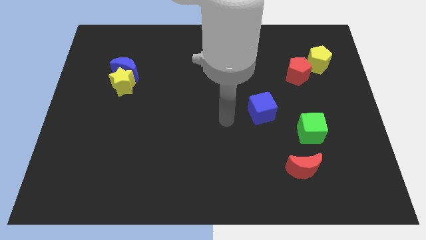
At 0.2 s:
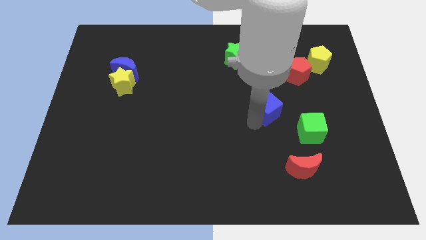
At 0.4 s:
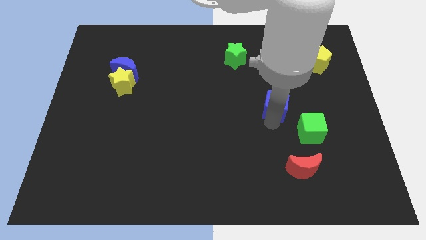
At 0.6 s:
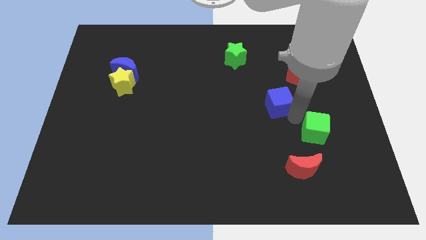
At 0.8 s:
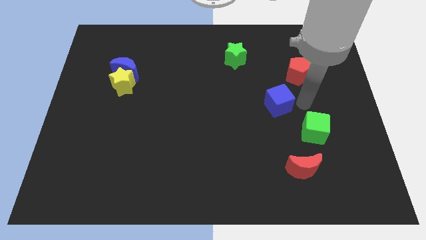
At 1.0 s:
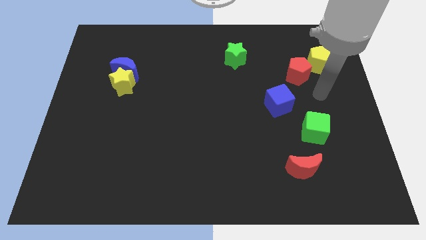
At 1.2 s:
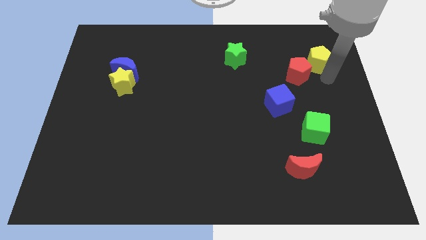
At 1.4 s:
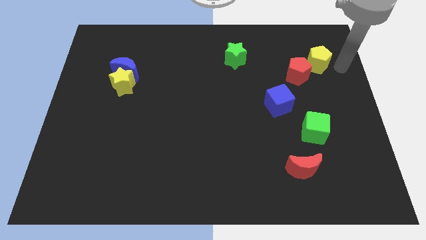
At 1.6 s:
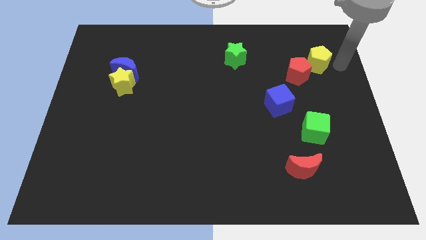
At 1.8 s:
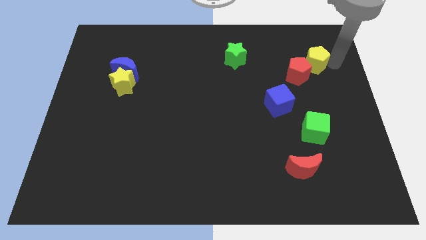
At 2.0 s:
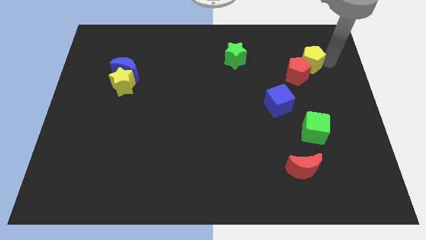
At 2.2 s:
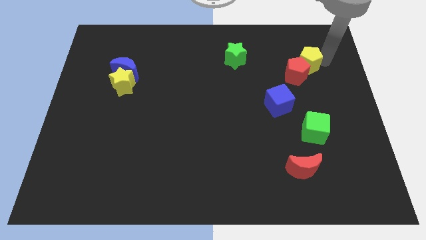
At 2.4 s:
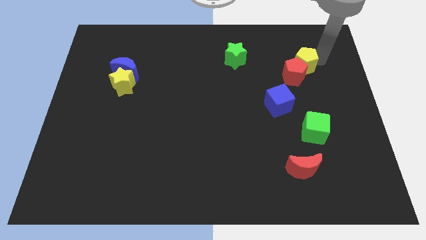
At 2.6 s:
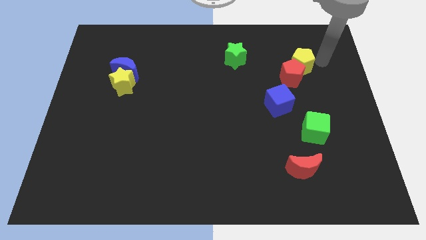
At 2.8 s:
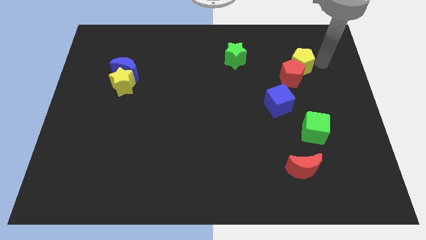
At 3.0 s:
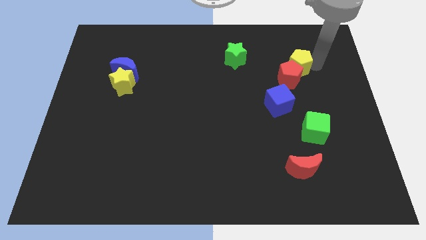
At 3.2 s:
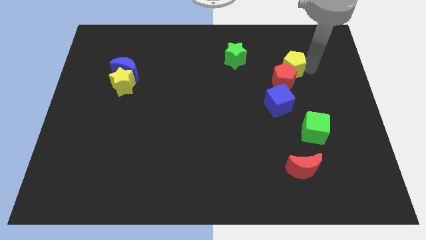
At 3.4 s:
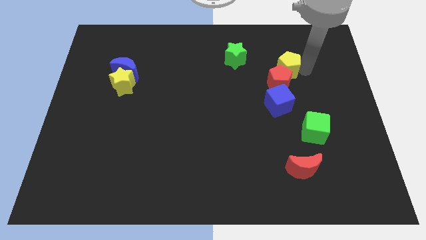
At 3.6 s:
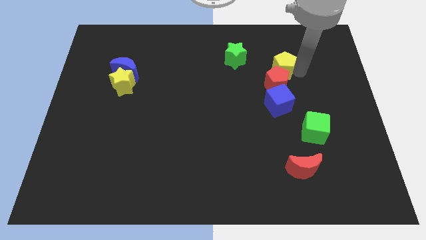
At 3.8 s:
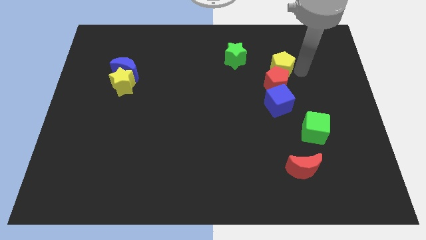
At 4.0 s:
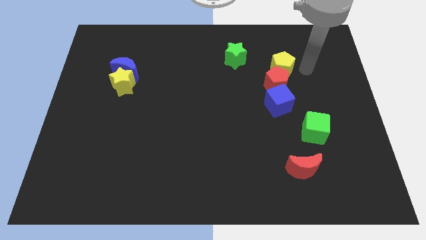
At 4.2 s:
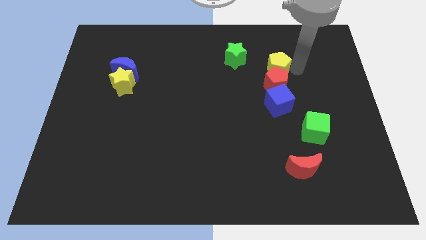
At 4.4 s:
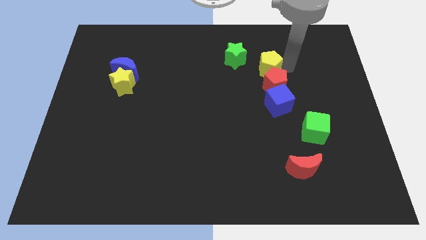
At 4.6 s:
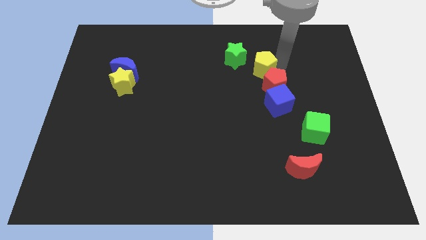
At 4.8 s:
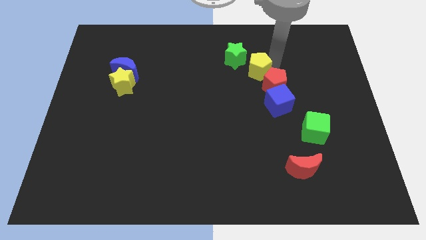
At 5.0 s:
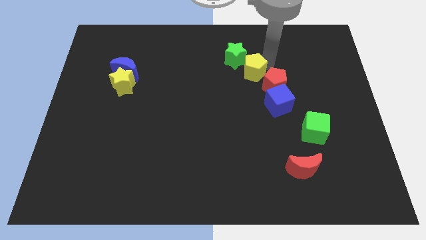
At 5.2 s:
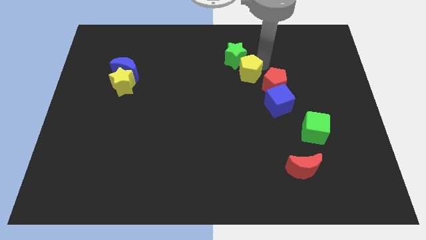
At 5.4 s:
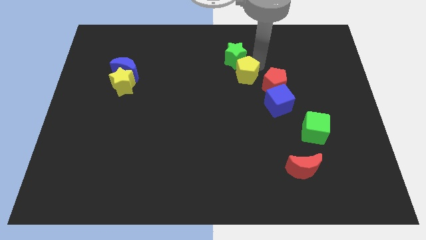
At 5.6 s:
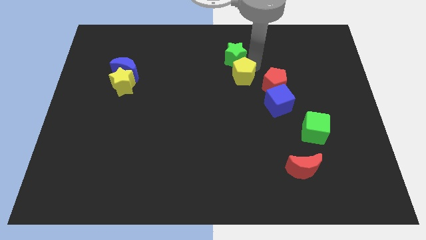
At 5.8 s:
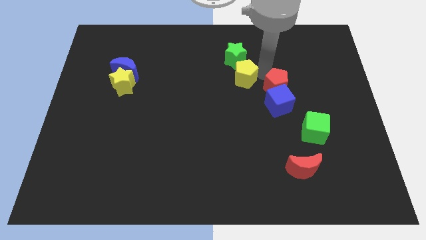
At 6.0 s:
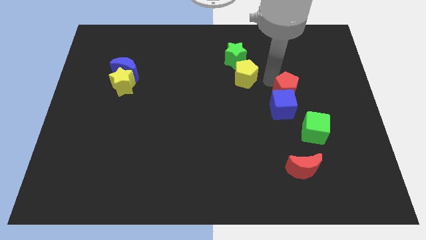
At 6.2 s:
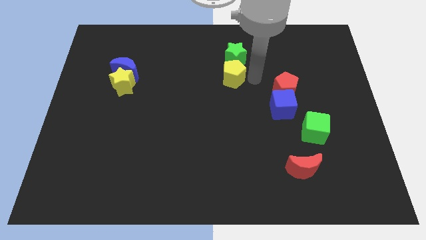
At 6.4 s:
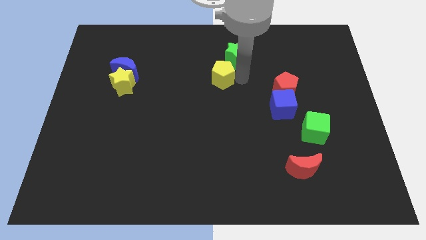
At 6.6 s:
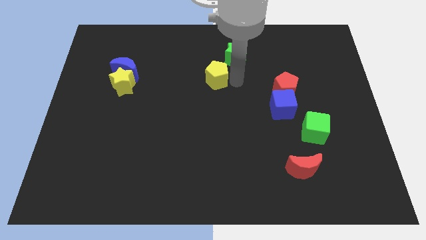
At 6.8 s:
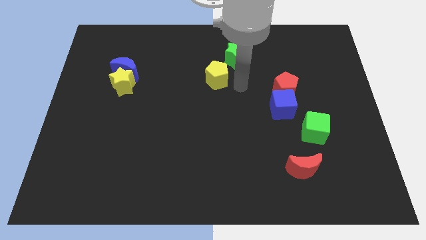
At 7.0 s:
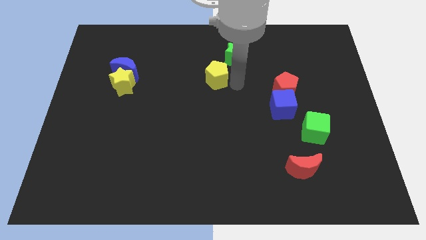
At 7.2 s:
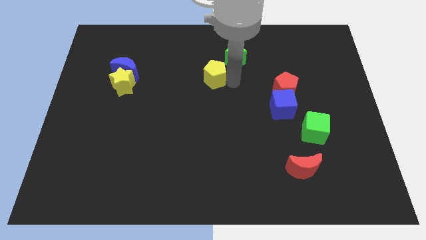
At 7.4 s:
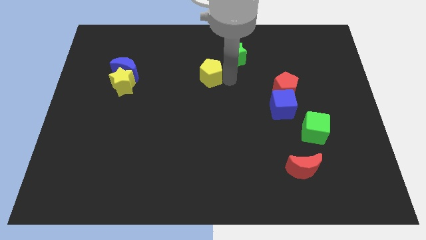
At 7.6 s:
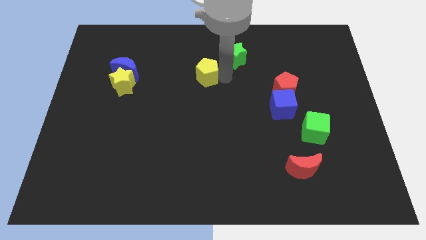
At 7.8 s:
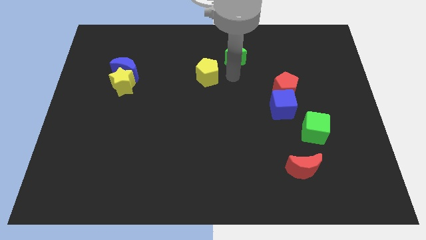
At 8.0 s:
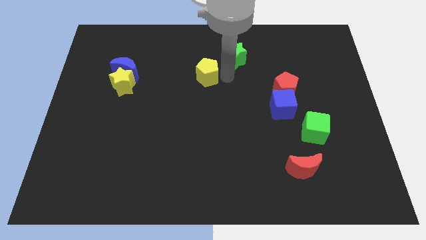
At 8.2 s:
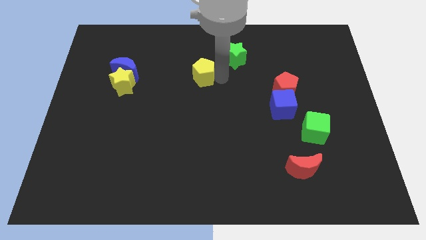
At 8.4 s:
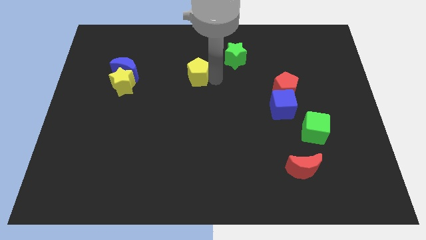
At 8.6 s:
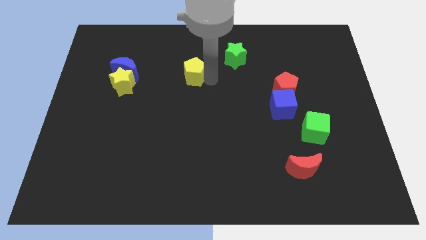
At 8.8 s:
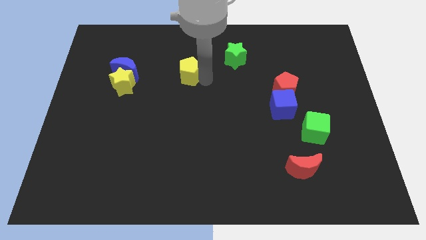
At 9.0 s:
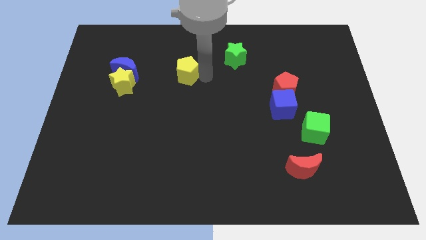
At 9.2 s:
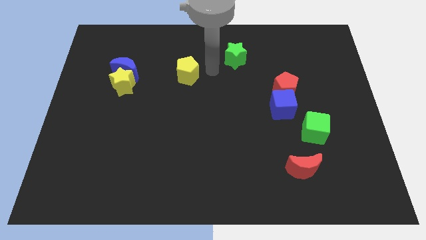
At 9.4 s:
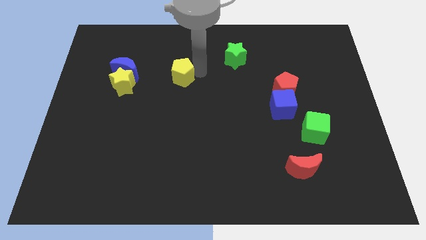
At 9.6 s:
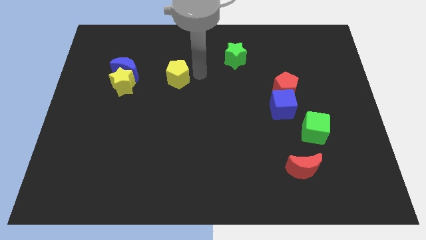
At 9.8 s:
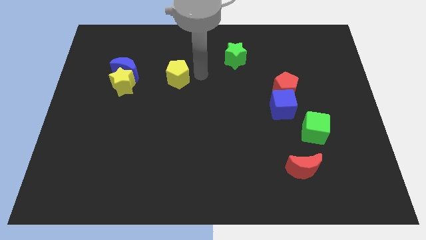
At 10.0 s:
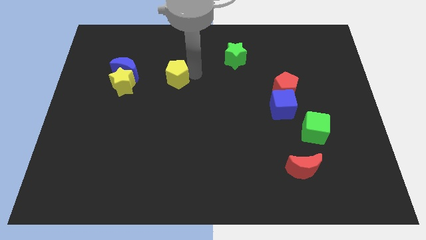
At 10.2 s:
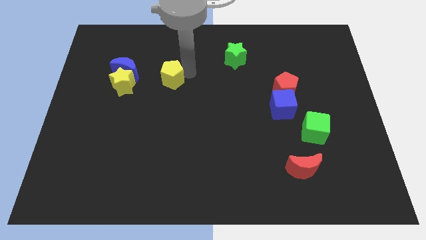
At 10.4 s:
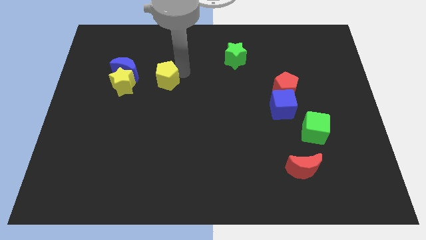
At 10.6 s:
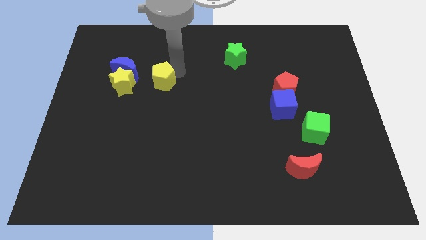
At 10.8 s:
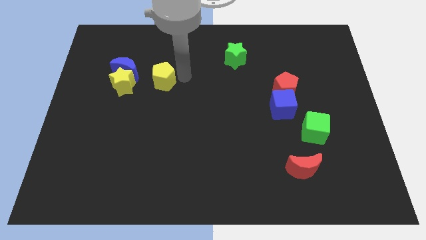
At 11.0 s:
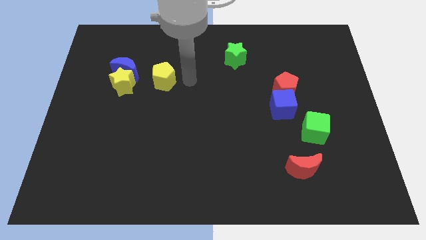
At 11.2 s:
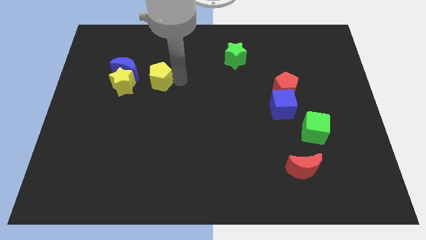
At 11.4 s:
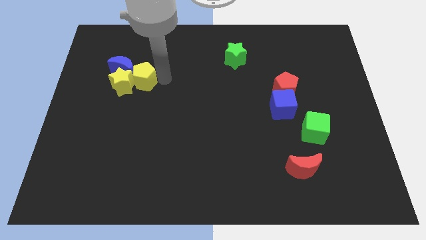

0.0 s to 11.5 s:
put the yellow pentagon towards the yellow star

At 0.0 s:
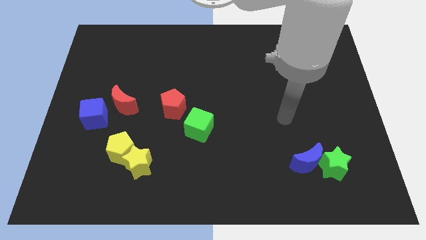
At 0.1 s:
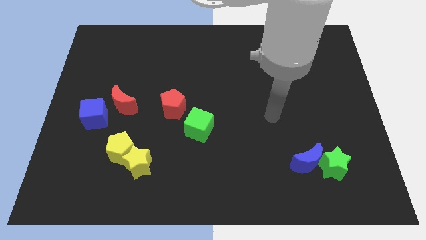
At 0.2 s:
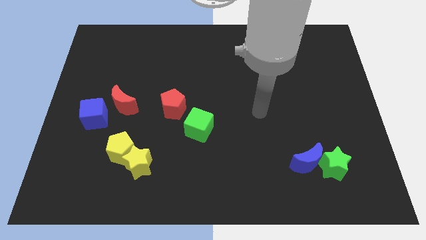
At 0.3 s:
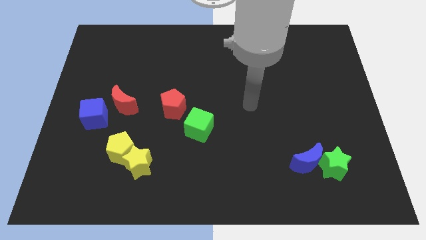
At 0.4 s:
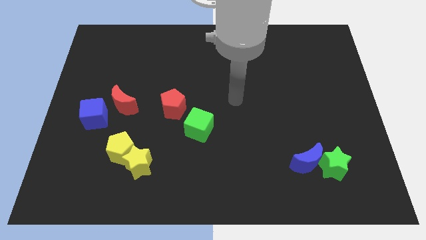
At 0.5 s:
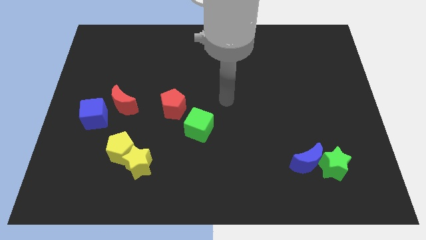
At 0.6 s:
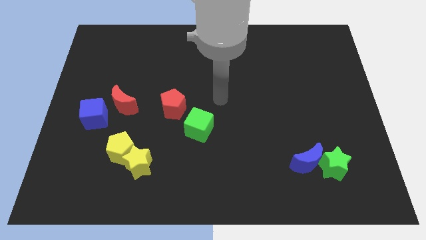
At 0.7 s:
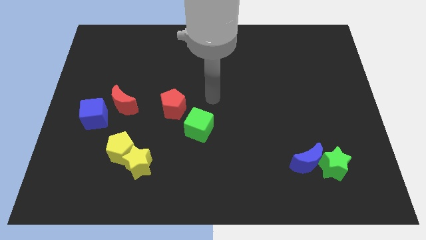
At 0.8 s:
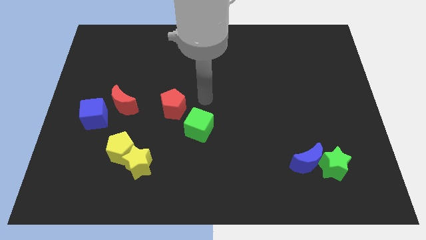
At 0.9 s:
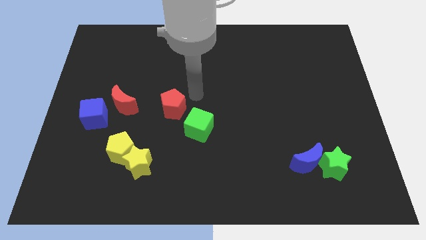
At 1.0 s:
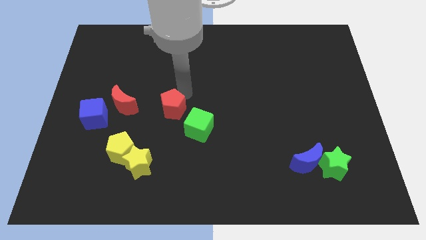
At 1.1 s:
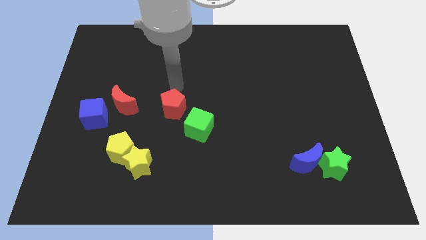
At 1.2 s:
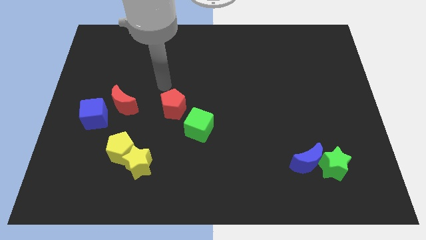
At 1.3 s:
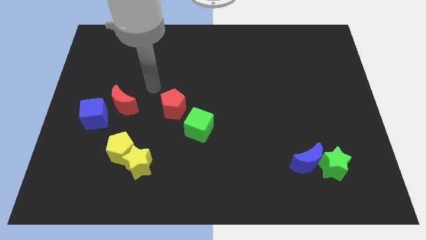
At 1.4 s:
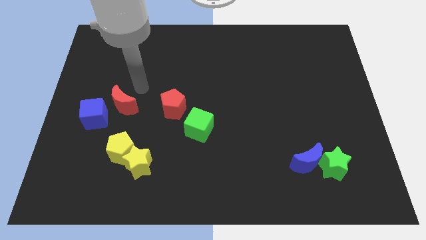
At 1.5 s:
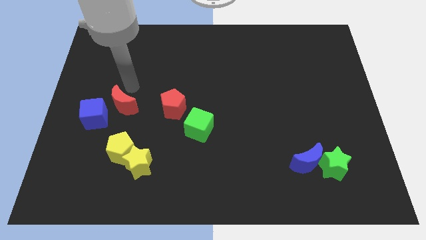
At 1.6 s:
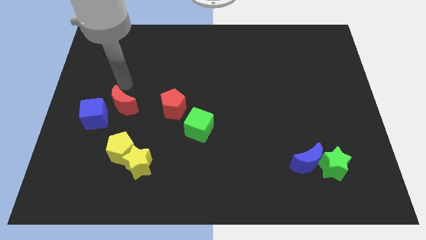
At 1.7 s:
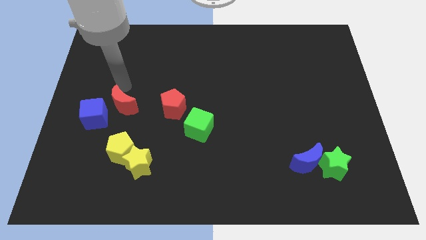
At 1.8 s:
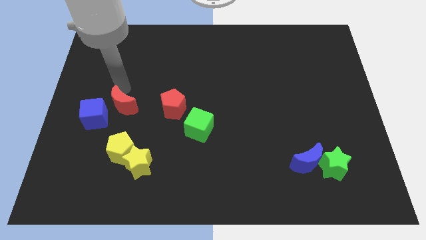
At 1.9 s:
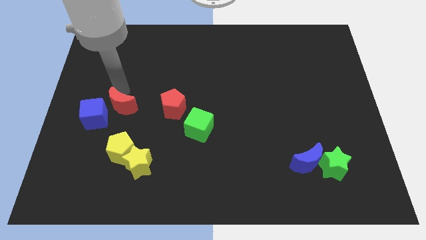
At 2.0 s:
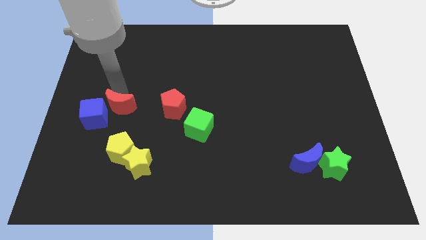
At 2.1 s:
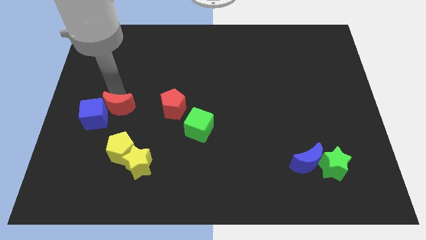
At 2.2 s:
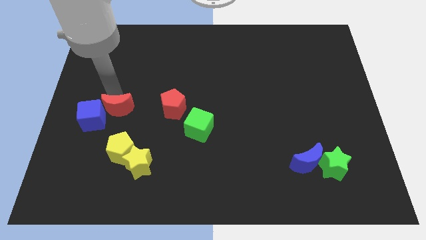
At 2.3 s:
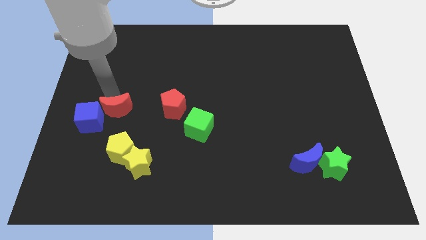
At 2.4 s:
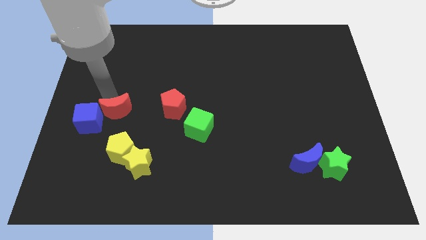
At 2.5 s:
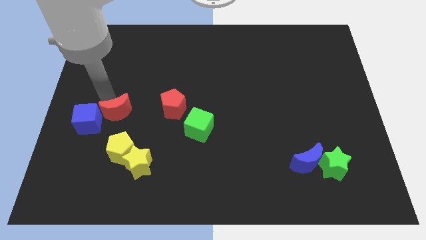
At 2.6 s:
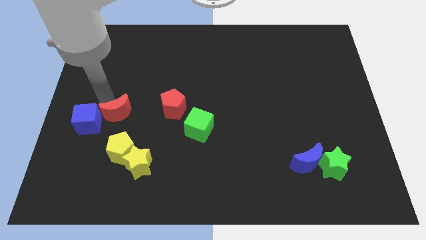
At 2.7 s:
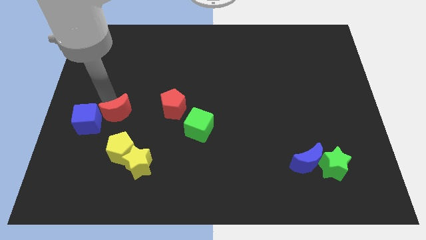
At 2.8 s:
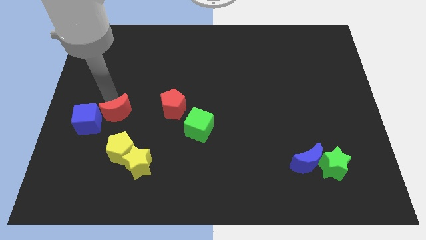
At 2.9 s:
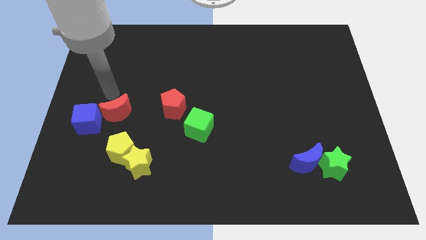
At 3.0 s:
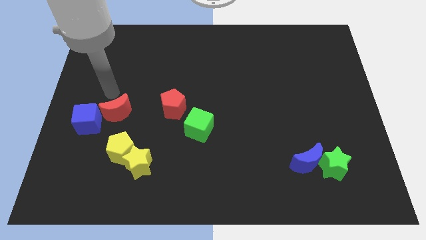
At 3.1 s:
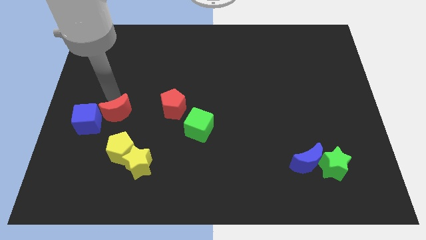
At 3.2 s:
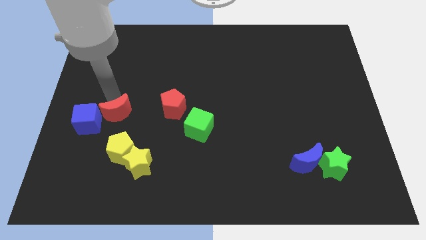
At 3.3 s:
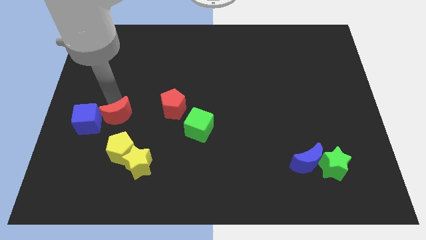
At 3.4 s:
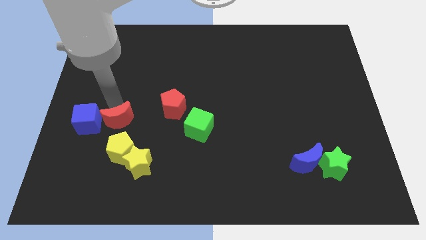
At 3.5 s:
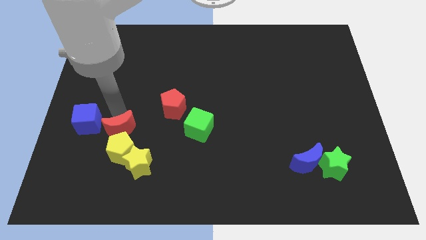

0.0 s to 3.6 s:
put the red moon next to the yellow pentagon
